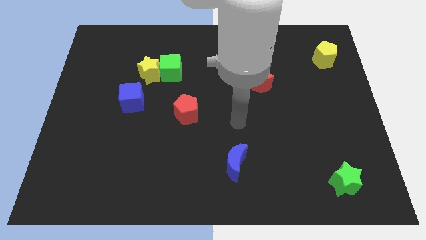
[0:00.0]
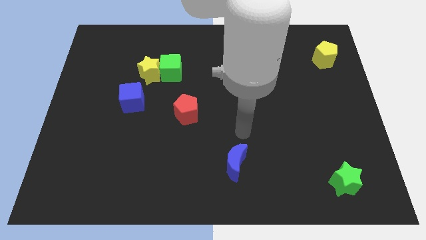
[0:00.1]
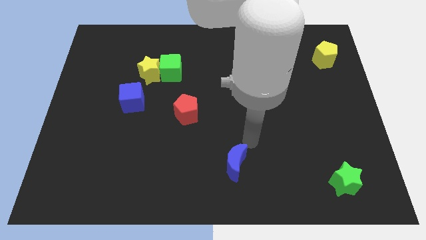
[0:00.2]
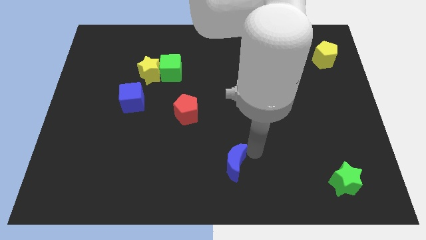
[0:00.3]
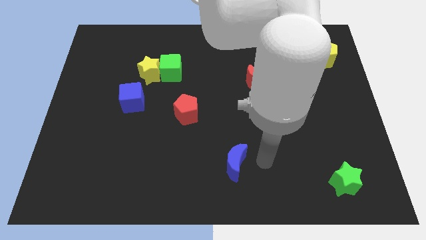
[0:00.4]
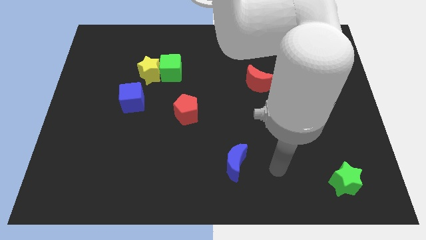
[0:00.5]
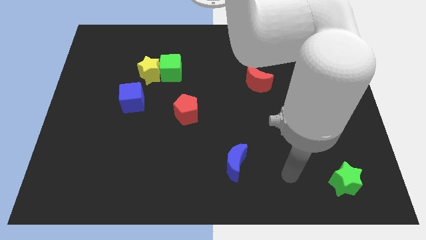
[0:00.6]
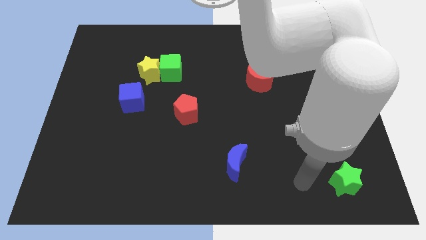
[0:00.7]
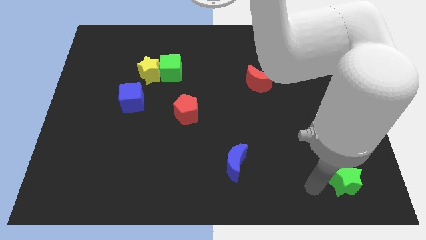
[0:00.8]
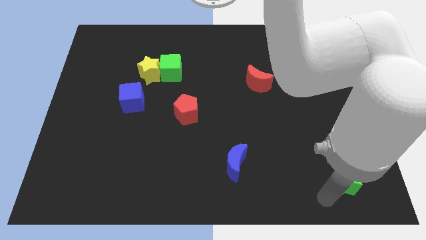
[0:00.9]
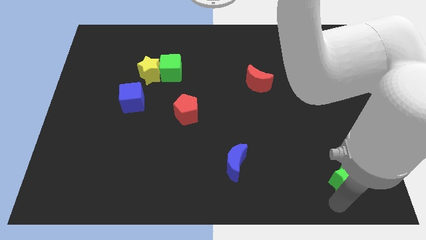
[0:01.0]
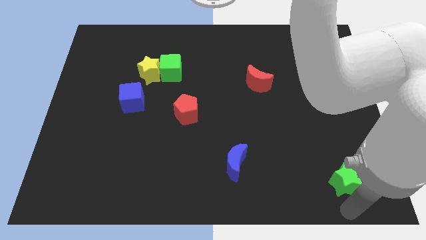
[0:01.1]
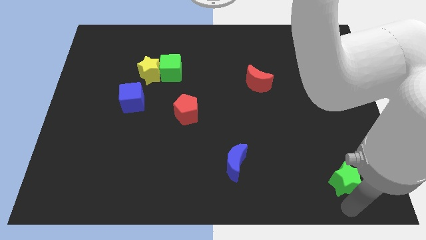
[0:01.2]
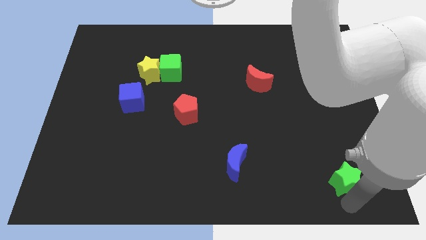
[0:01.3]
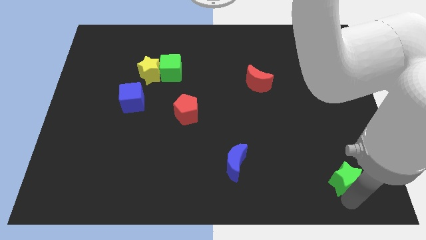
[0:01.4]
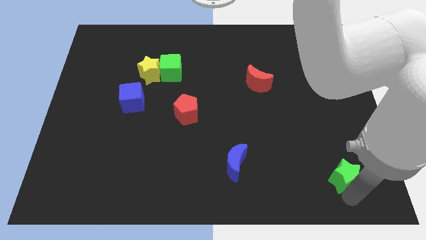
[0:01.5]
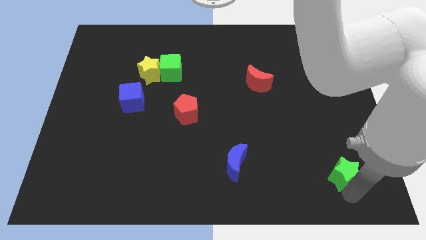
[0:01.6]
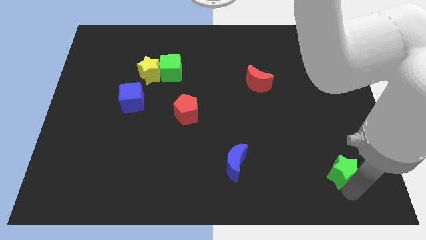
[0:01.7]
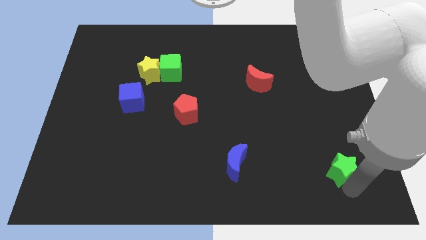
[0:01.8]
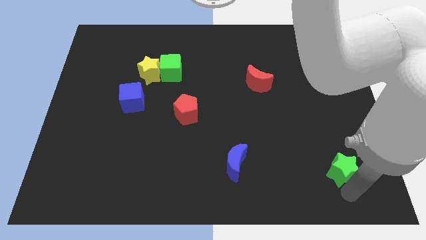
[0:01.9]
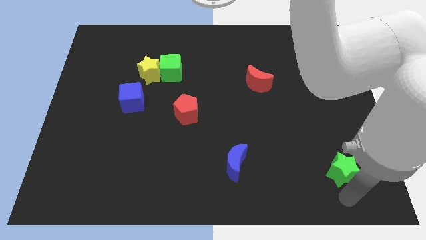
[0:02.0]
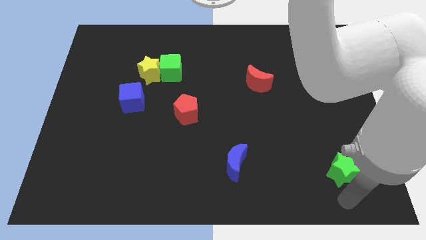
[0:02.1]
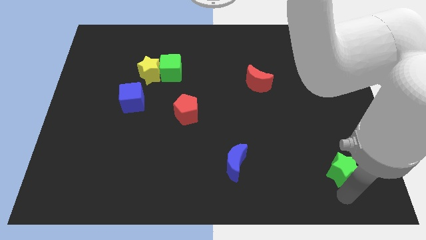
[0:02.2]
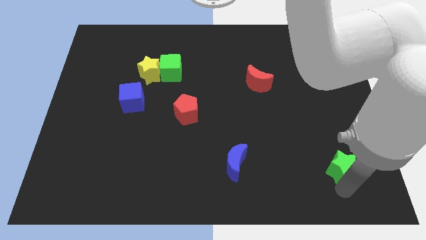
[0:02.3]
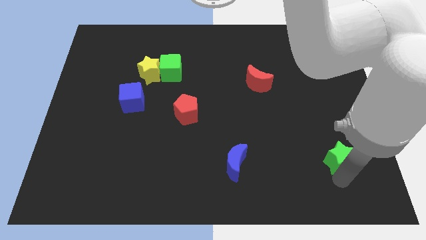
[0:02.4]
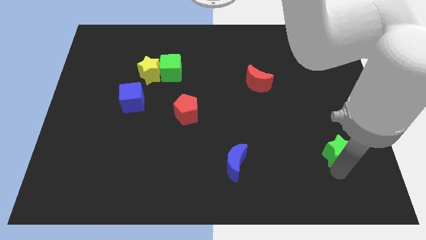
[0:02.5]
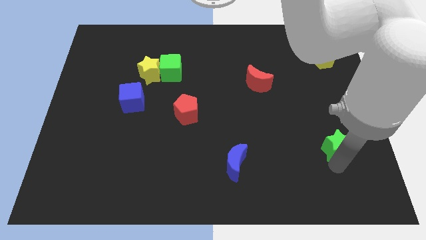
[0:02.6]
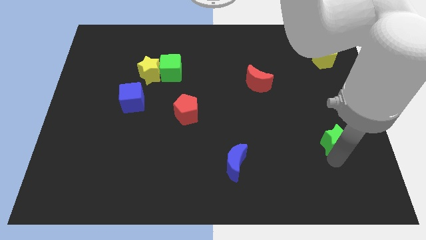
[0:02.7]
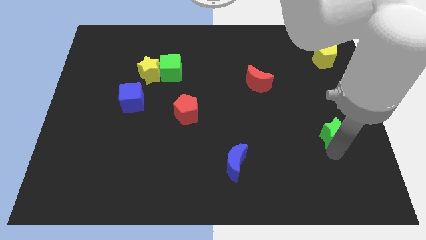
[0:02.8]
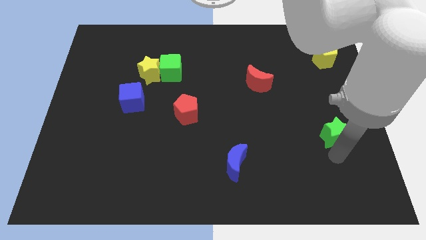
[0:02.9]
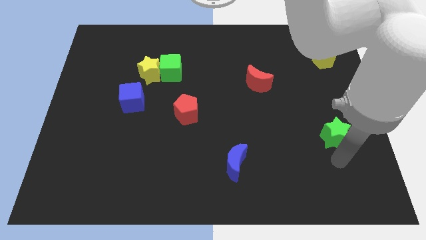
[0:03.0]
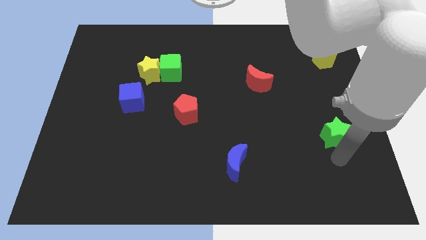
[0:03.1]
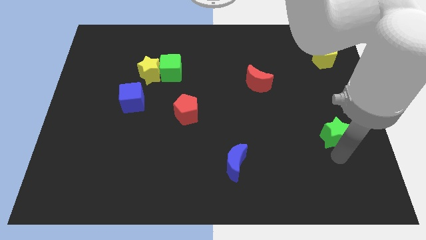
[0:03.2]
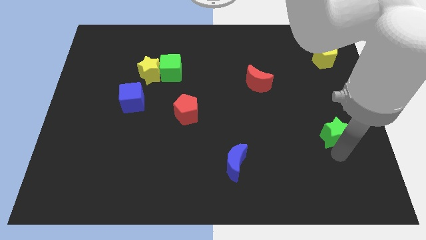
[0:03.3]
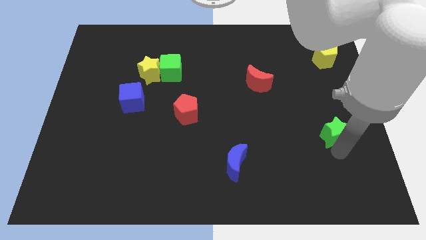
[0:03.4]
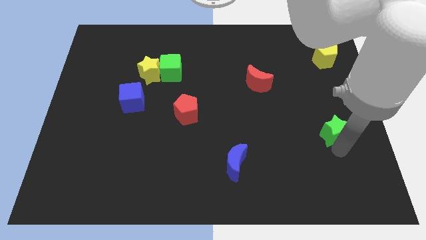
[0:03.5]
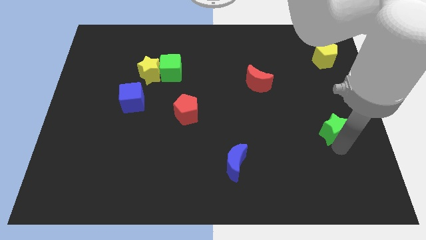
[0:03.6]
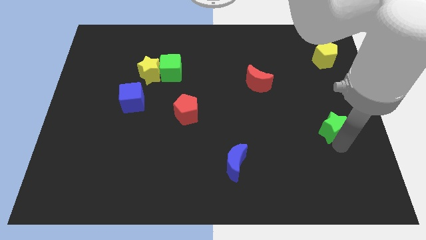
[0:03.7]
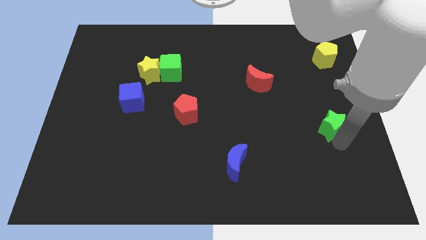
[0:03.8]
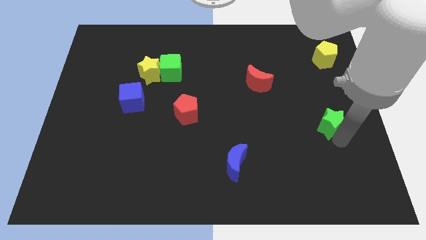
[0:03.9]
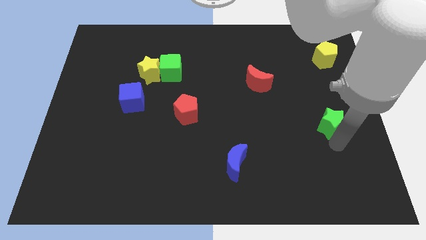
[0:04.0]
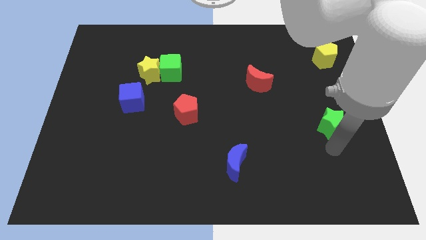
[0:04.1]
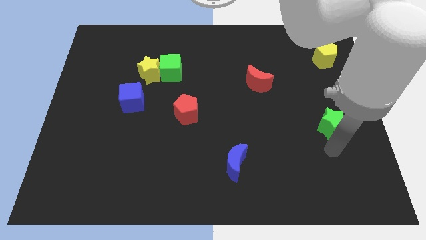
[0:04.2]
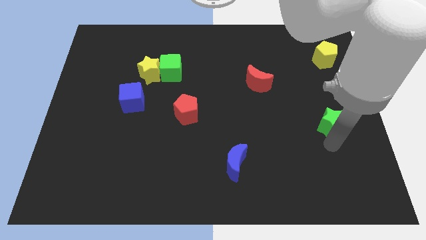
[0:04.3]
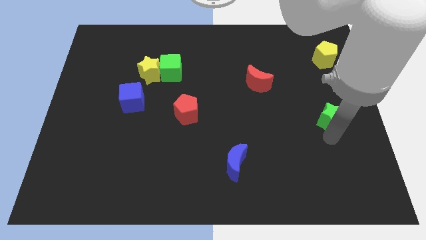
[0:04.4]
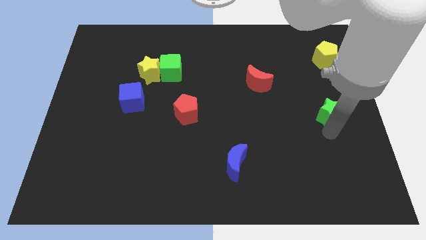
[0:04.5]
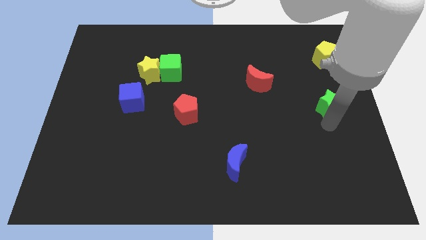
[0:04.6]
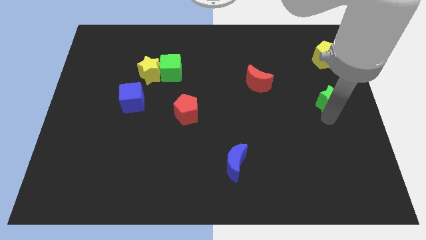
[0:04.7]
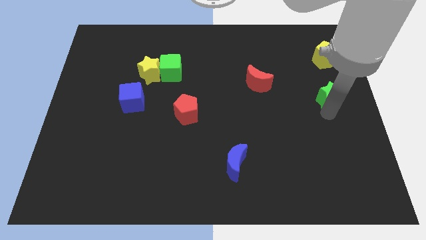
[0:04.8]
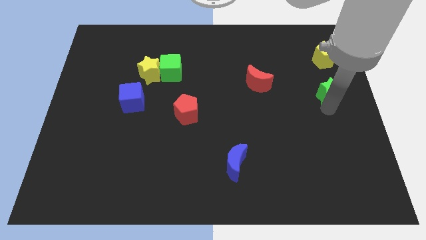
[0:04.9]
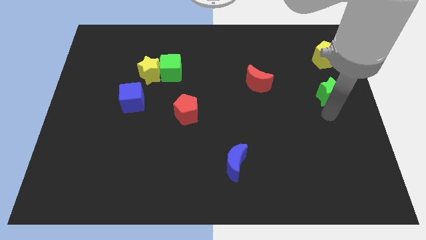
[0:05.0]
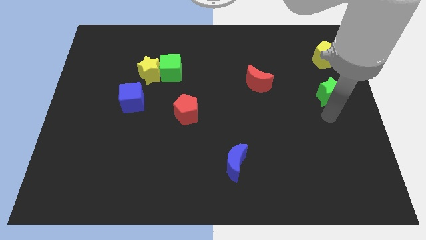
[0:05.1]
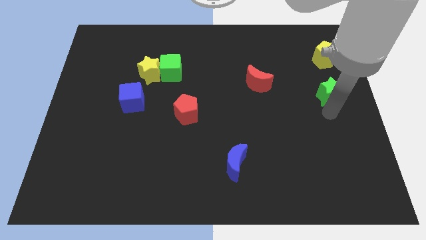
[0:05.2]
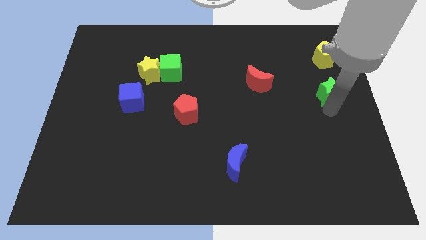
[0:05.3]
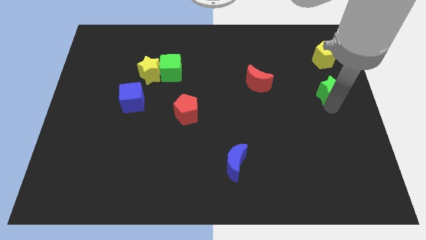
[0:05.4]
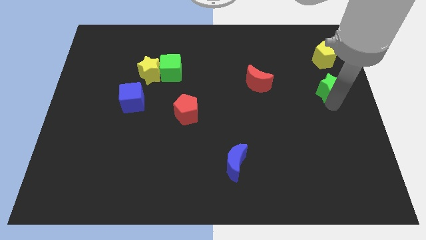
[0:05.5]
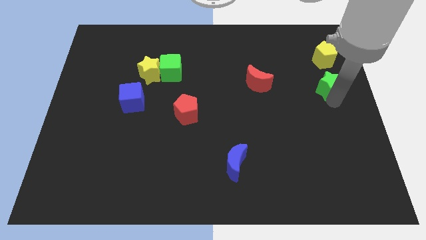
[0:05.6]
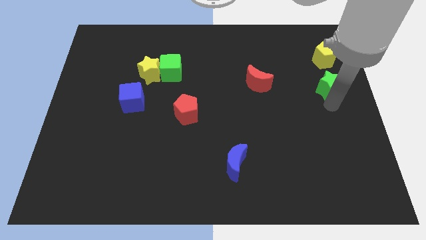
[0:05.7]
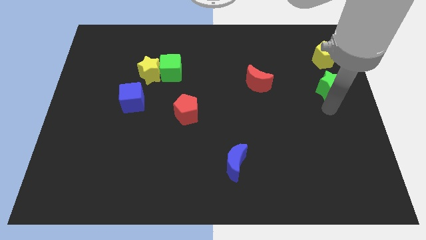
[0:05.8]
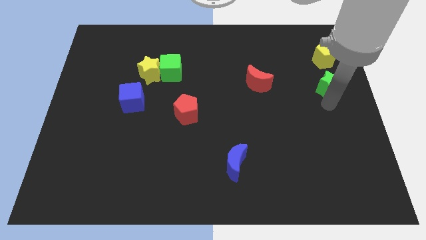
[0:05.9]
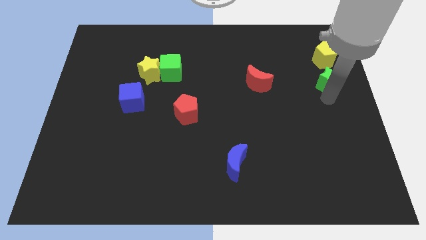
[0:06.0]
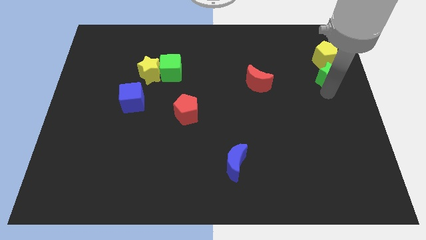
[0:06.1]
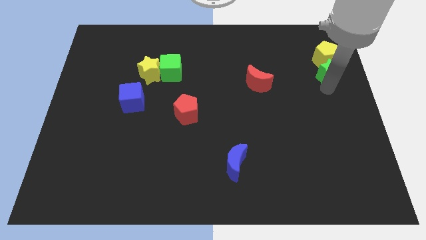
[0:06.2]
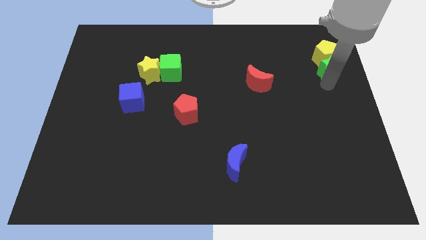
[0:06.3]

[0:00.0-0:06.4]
put the green star towards the yellow pentagon

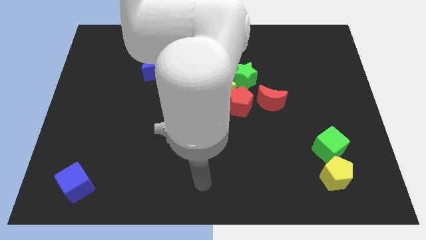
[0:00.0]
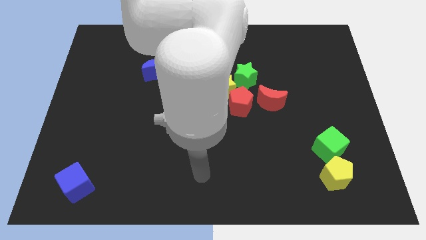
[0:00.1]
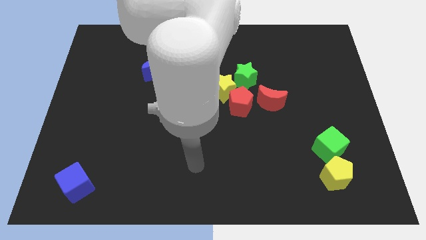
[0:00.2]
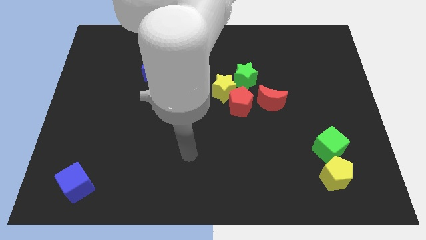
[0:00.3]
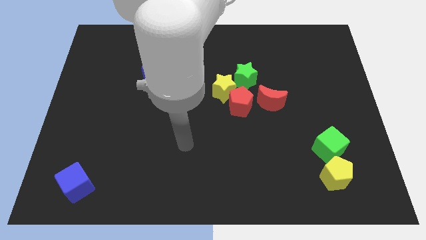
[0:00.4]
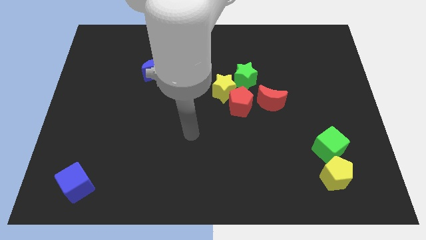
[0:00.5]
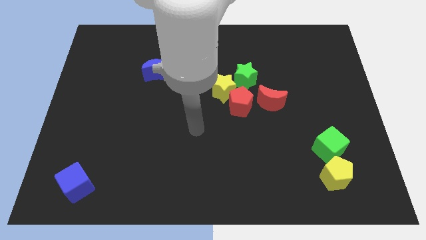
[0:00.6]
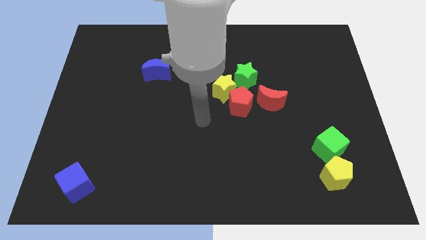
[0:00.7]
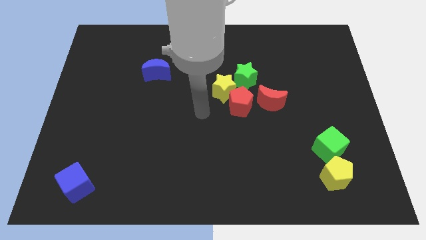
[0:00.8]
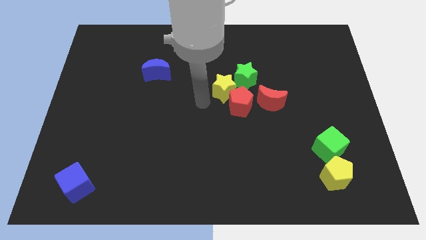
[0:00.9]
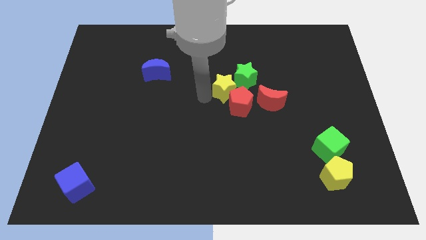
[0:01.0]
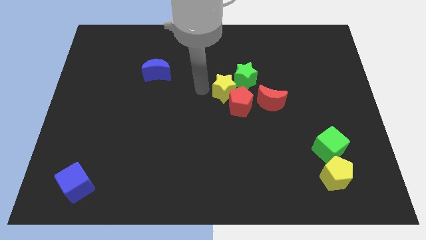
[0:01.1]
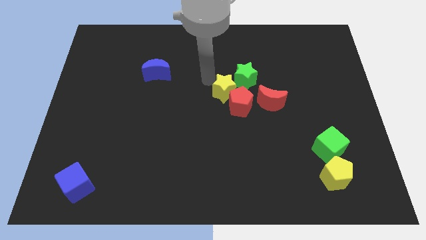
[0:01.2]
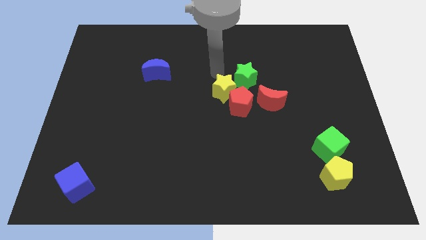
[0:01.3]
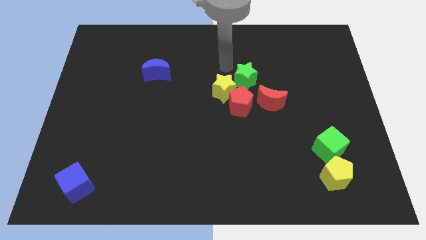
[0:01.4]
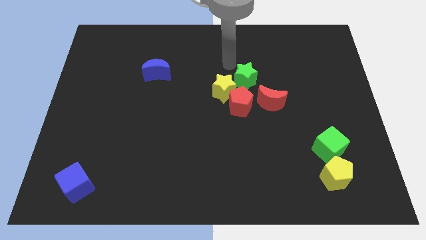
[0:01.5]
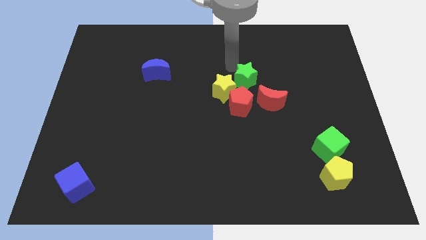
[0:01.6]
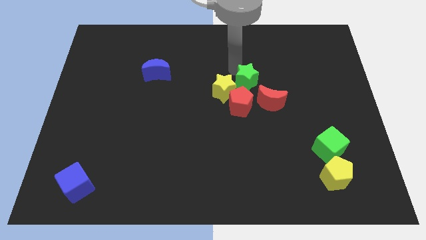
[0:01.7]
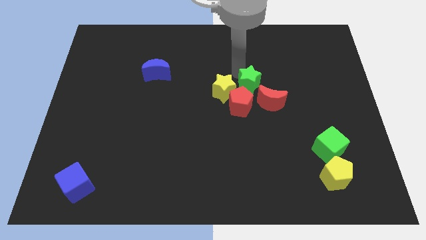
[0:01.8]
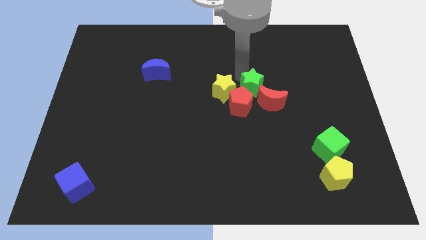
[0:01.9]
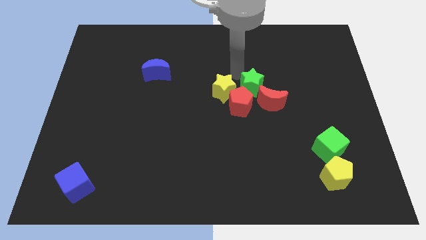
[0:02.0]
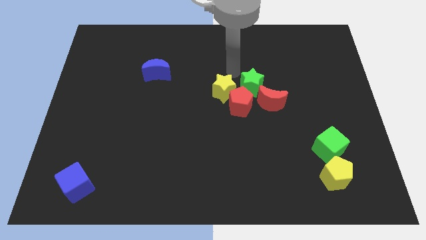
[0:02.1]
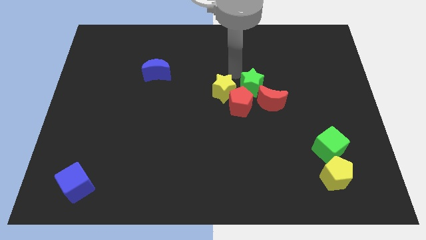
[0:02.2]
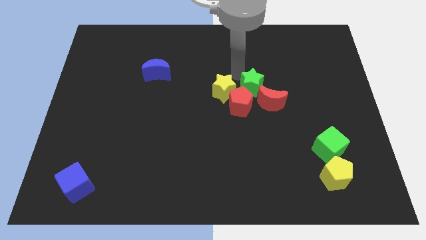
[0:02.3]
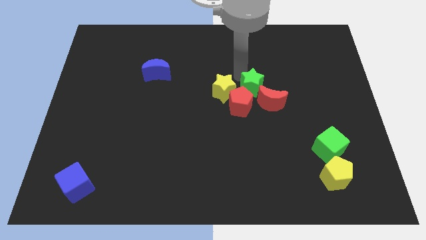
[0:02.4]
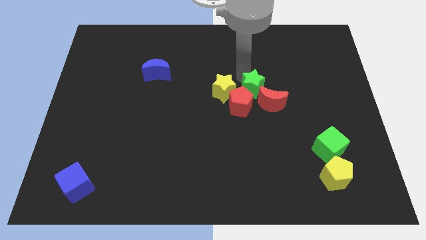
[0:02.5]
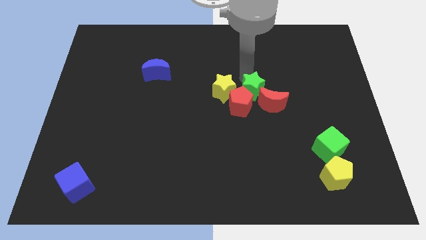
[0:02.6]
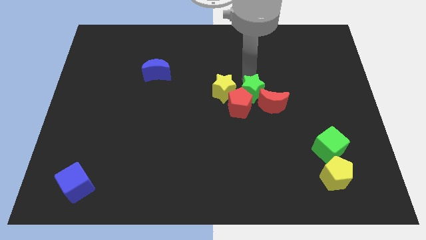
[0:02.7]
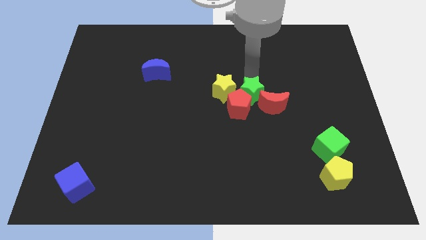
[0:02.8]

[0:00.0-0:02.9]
put the green star towards the red moon
